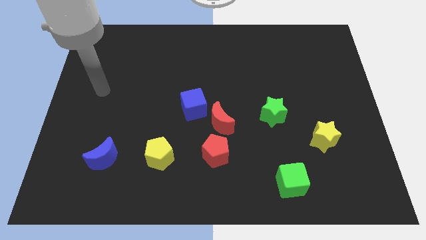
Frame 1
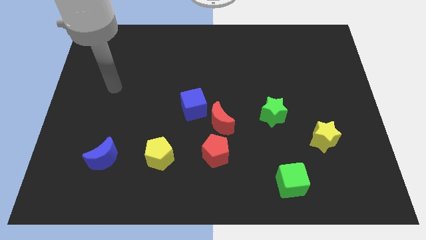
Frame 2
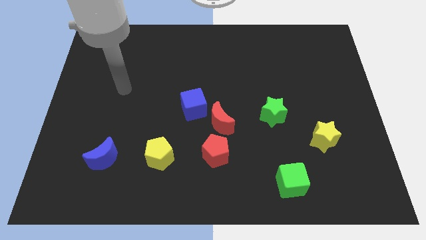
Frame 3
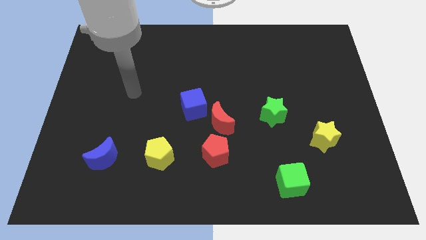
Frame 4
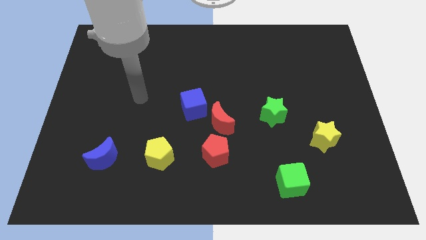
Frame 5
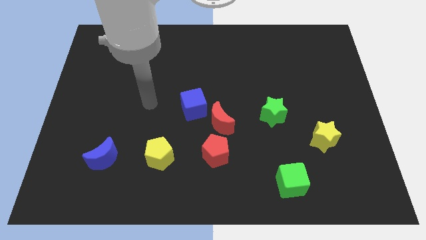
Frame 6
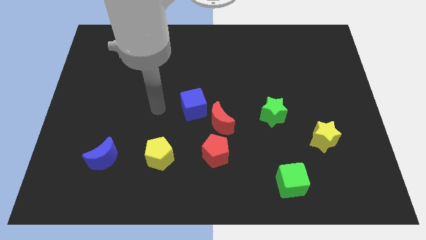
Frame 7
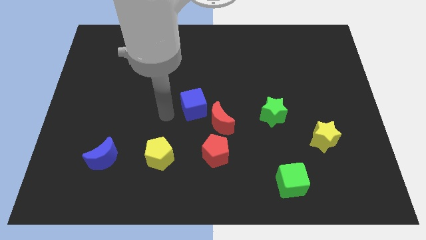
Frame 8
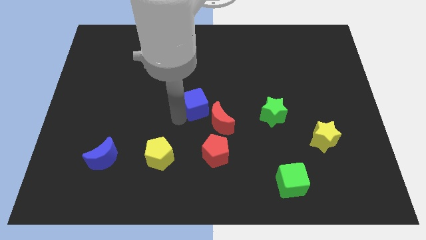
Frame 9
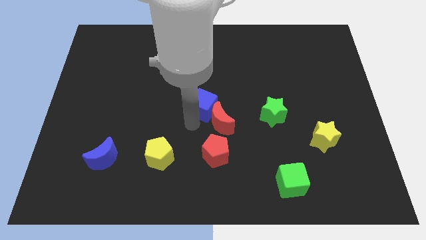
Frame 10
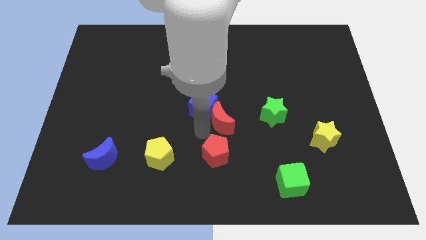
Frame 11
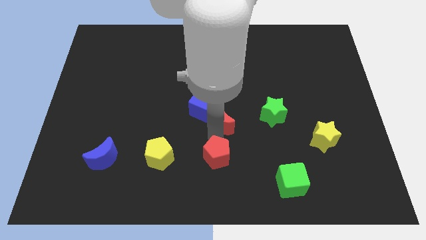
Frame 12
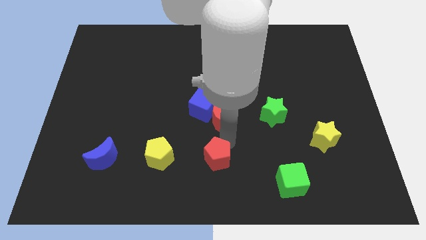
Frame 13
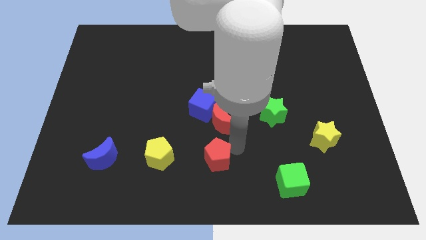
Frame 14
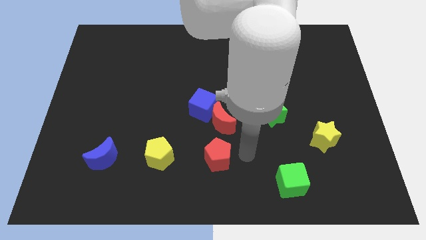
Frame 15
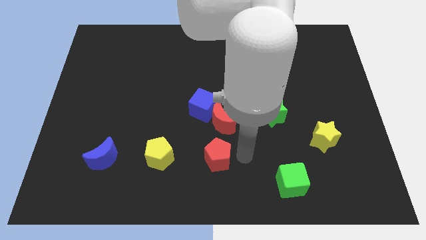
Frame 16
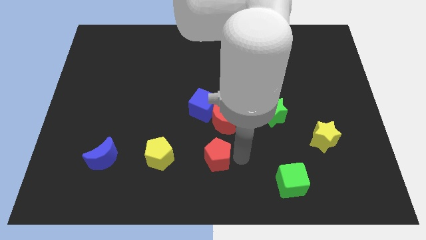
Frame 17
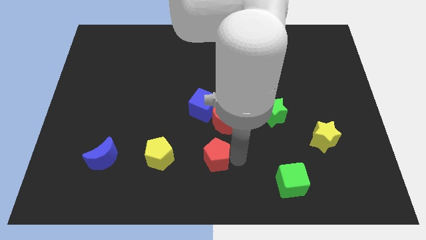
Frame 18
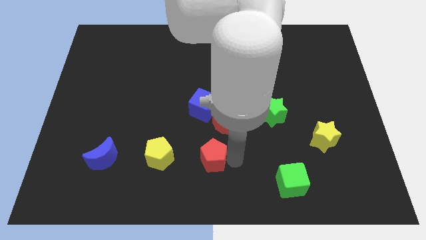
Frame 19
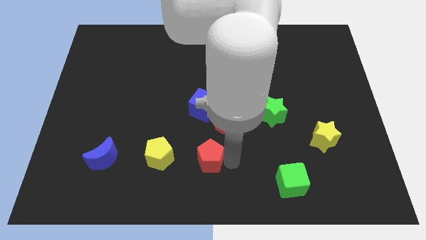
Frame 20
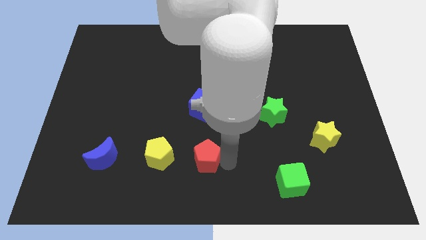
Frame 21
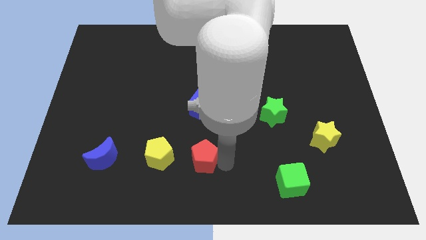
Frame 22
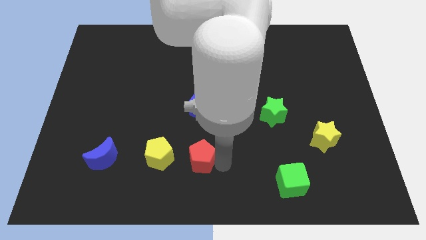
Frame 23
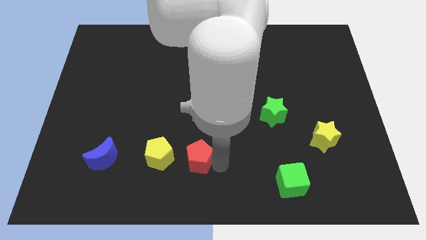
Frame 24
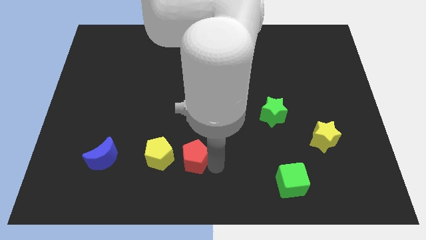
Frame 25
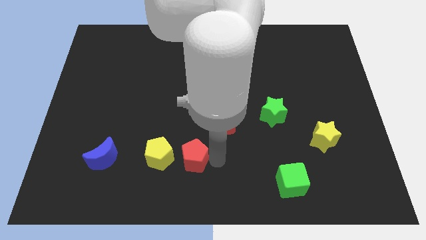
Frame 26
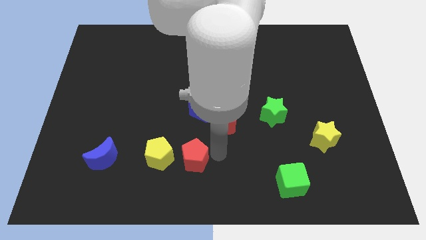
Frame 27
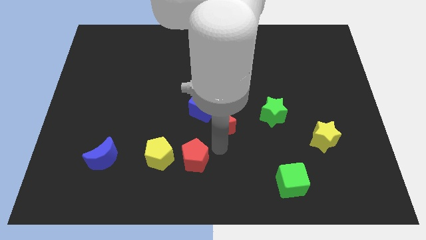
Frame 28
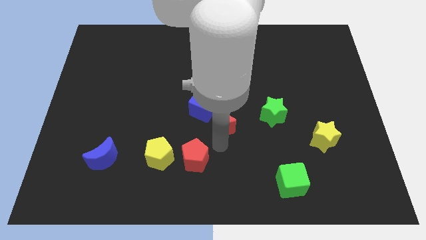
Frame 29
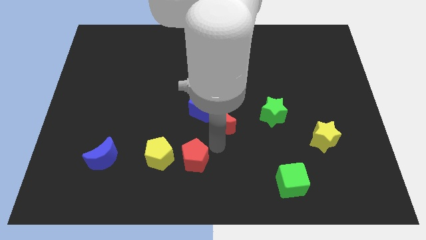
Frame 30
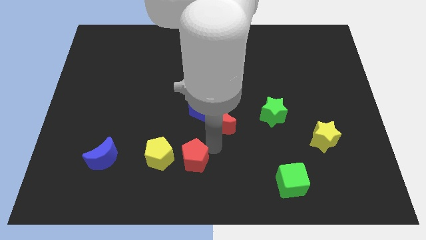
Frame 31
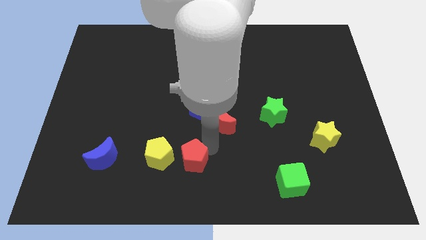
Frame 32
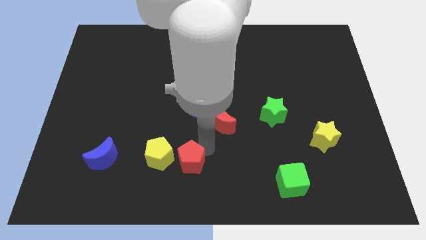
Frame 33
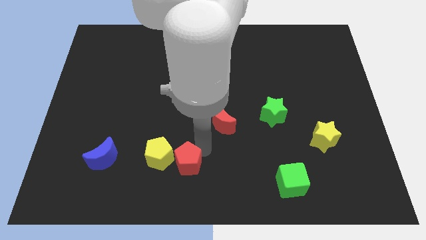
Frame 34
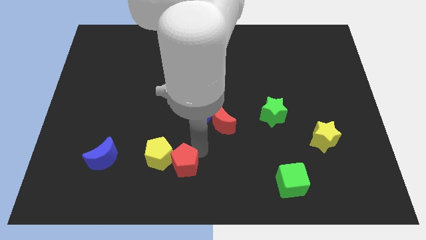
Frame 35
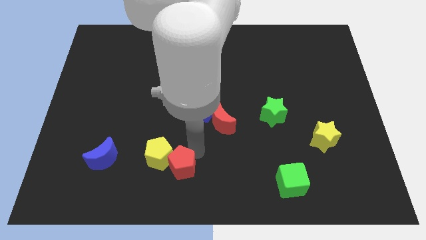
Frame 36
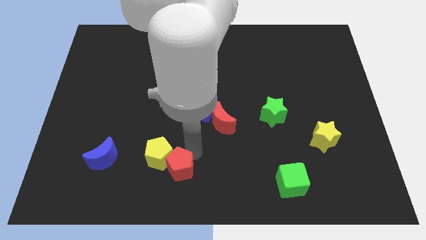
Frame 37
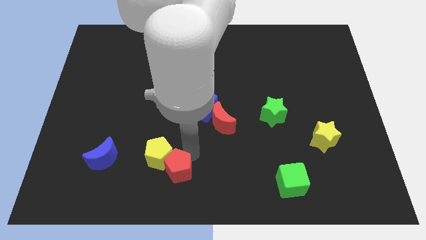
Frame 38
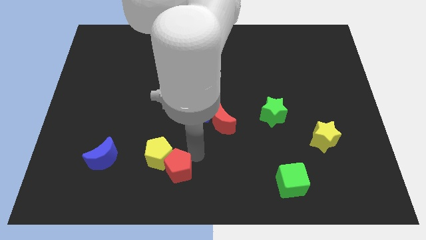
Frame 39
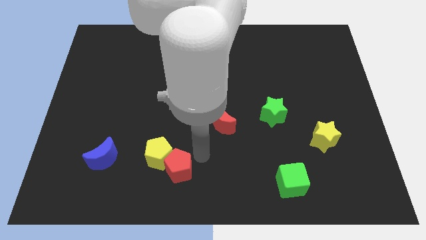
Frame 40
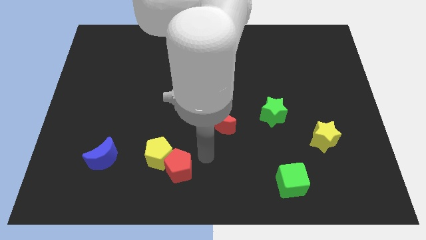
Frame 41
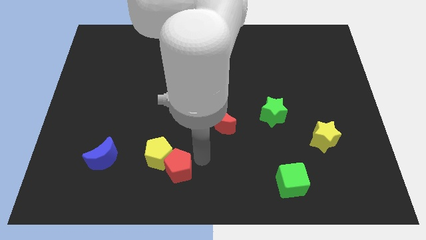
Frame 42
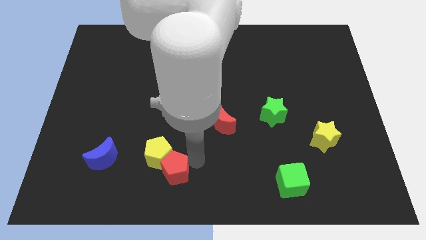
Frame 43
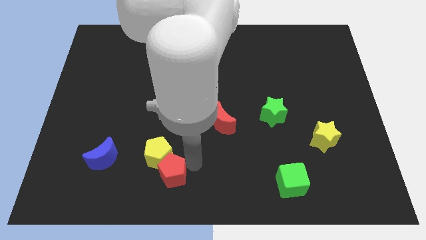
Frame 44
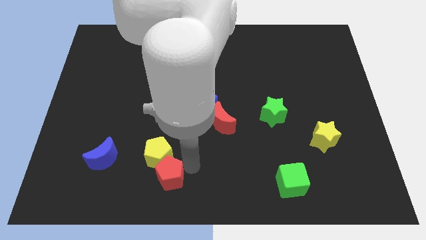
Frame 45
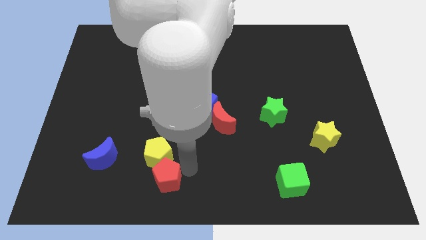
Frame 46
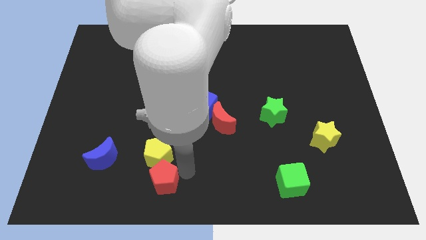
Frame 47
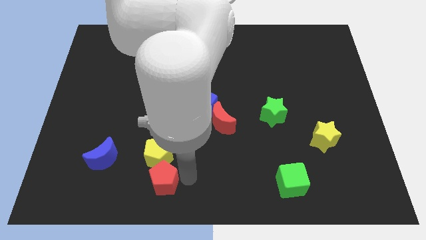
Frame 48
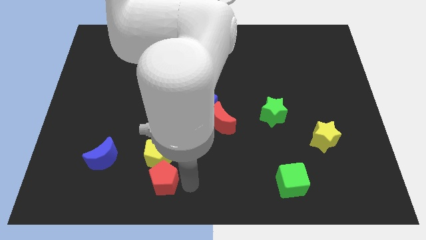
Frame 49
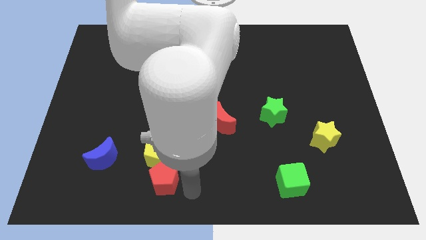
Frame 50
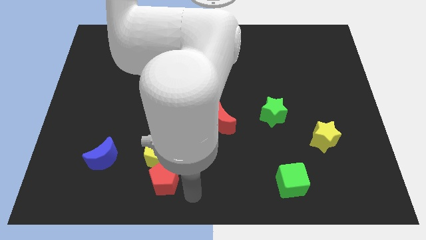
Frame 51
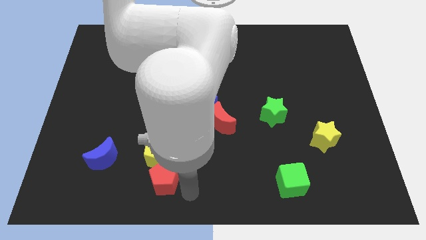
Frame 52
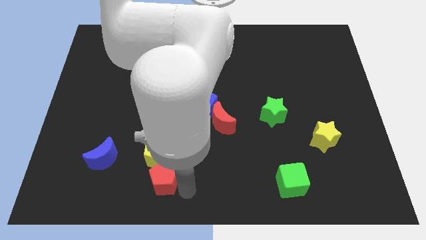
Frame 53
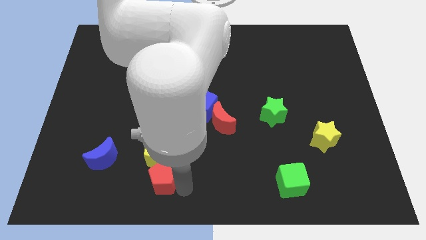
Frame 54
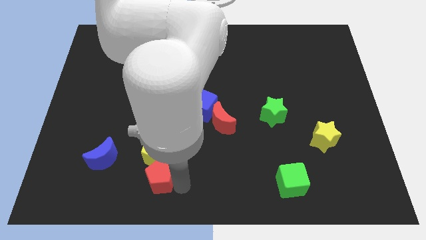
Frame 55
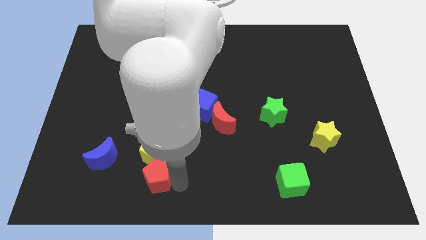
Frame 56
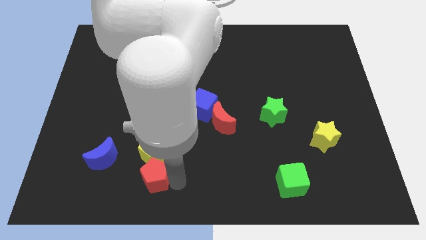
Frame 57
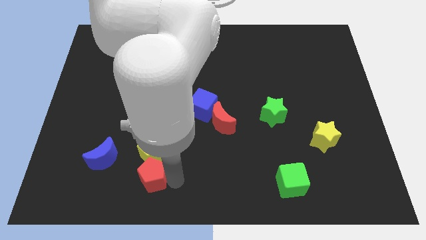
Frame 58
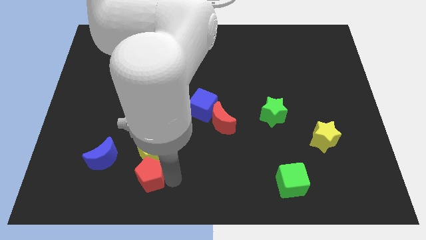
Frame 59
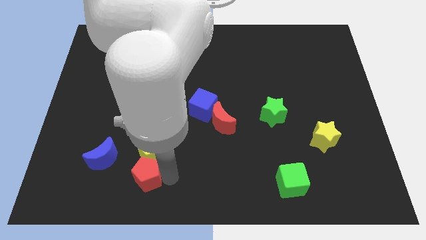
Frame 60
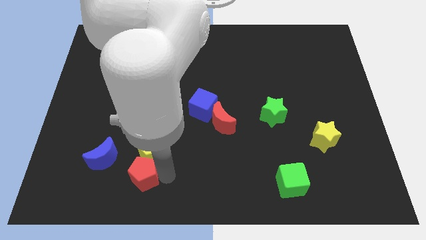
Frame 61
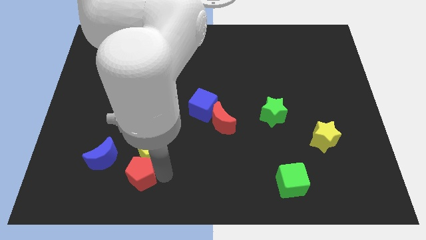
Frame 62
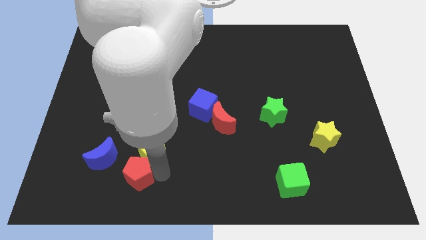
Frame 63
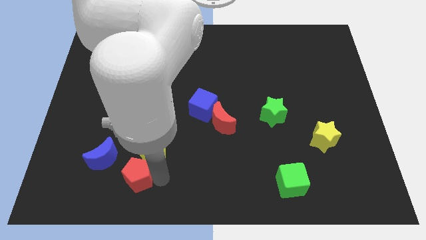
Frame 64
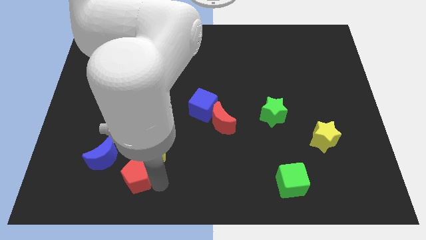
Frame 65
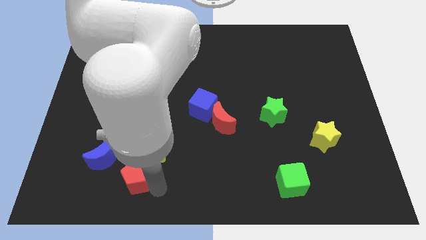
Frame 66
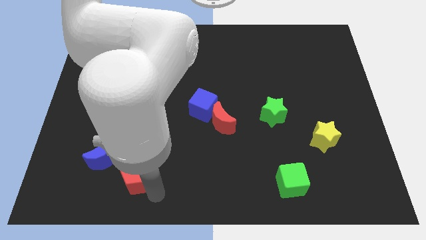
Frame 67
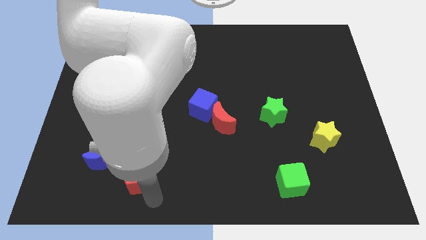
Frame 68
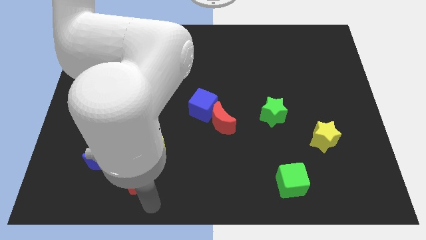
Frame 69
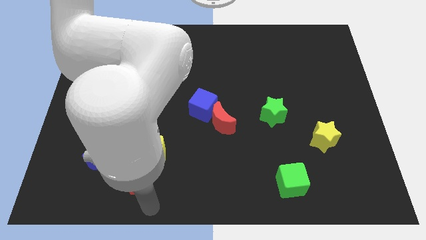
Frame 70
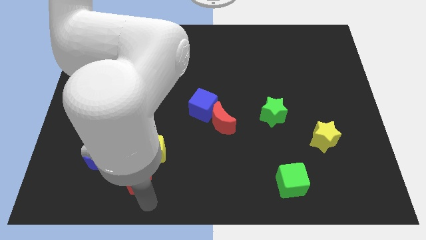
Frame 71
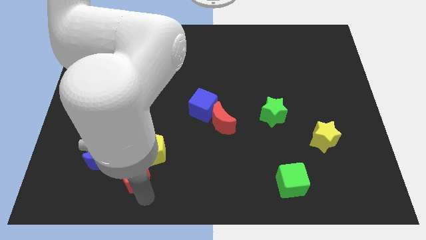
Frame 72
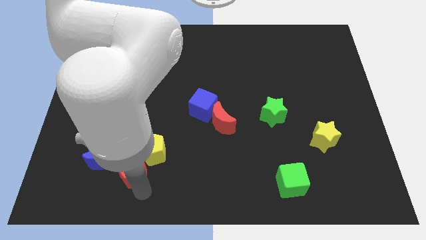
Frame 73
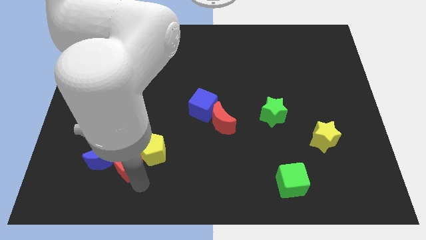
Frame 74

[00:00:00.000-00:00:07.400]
put the red pentagon to the blue moon

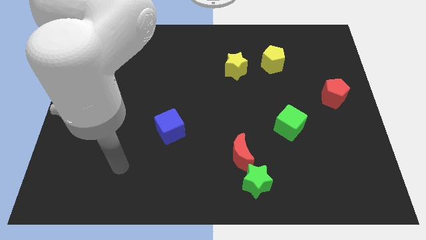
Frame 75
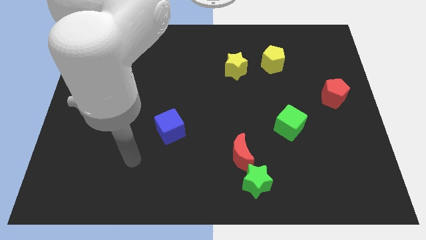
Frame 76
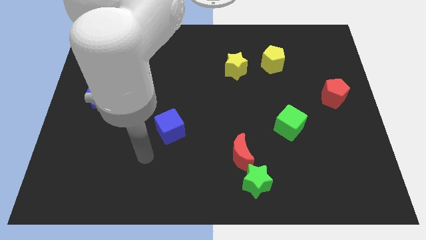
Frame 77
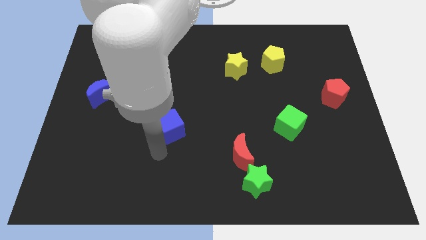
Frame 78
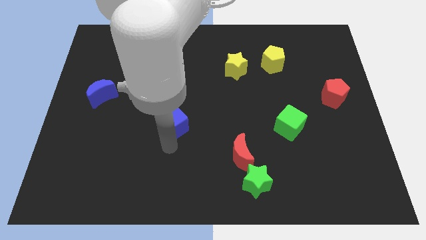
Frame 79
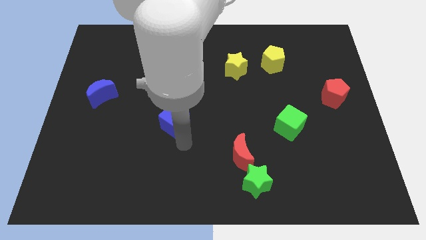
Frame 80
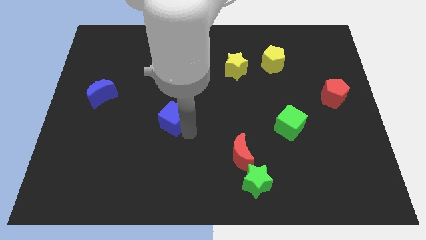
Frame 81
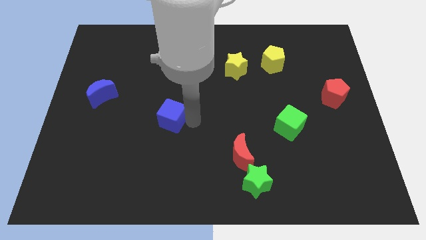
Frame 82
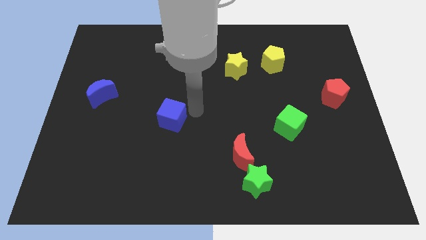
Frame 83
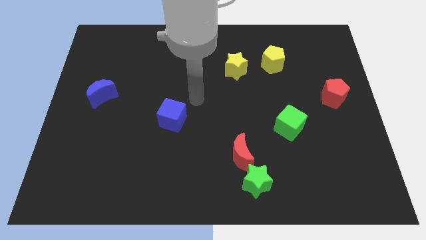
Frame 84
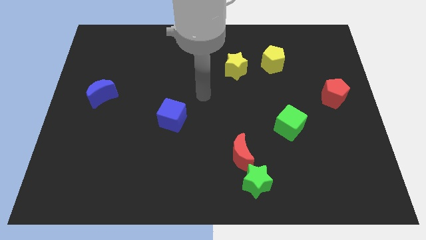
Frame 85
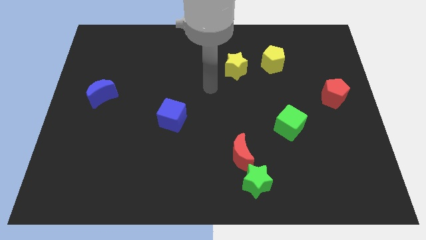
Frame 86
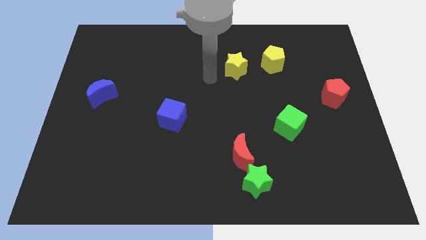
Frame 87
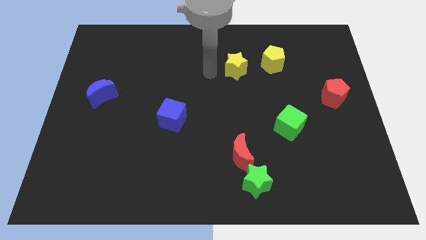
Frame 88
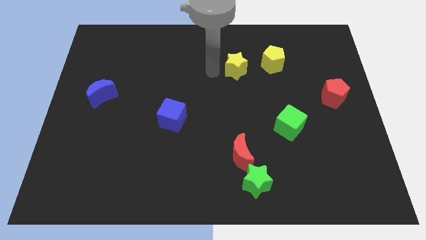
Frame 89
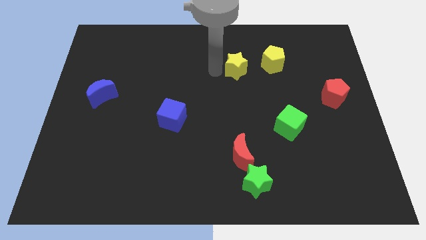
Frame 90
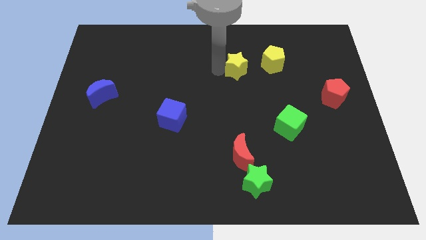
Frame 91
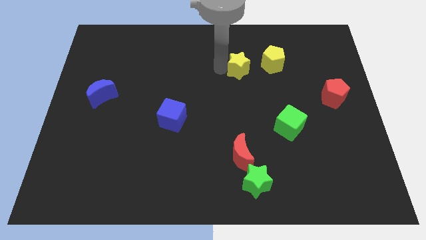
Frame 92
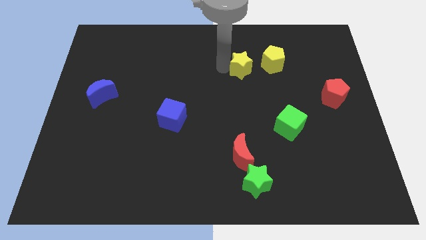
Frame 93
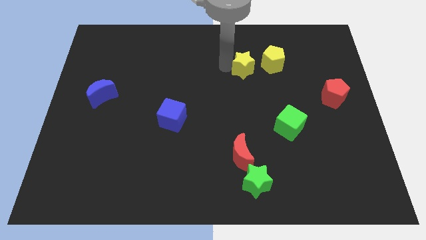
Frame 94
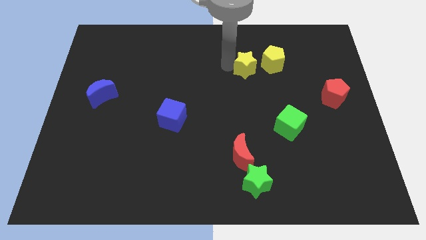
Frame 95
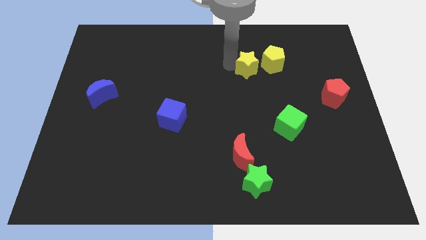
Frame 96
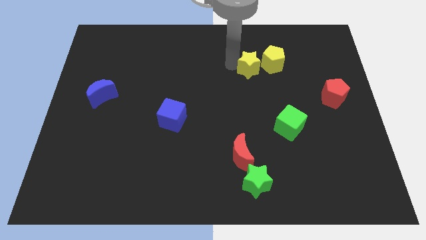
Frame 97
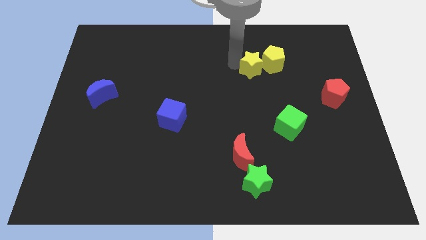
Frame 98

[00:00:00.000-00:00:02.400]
push the yellow star to the yellow pentagon
